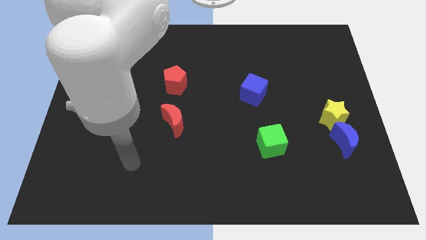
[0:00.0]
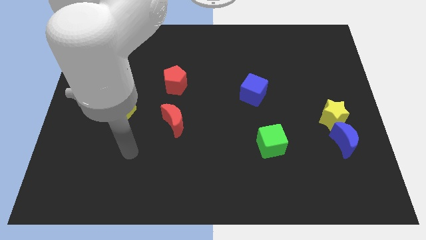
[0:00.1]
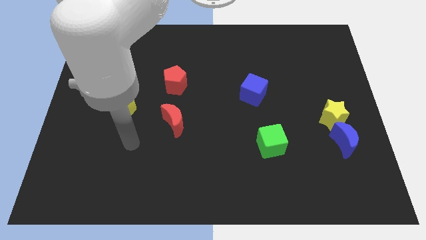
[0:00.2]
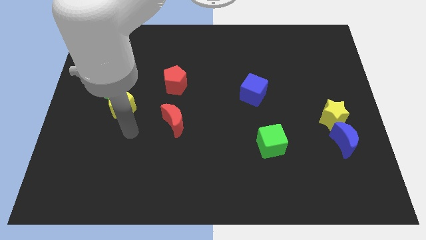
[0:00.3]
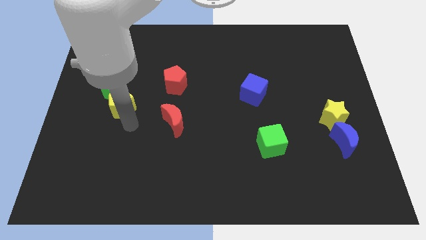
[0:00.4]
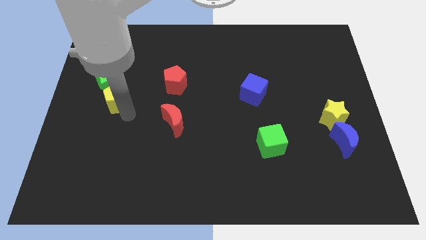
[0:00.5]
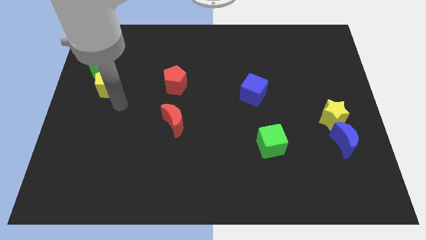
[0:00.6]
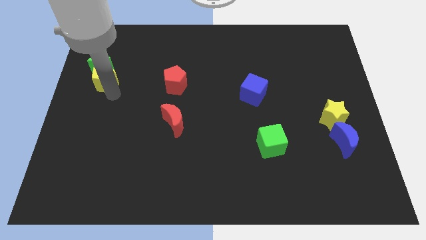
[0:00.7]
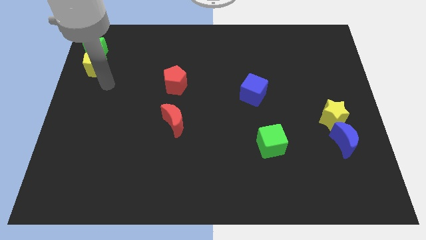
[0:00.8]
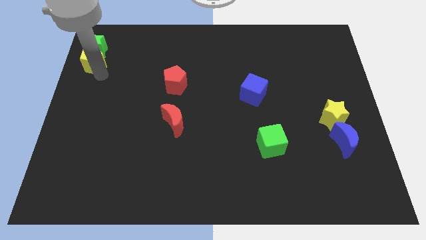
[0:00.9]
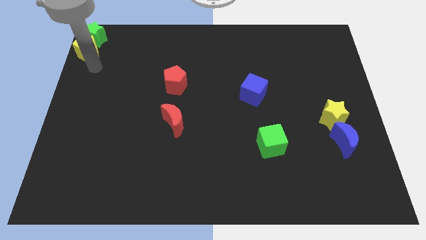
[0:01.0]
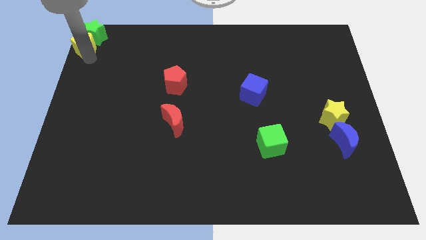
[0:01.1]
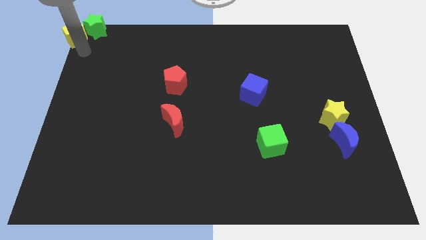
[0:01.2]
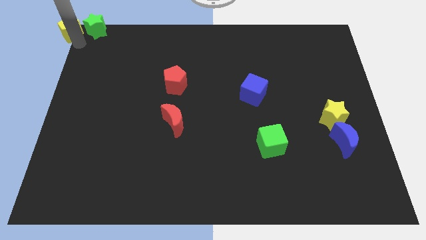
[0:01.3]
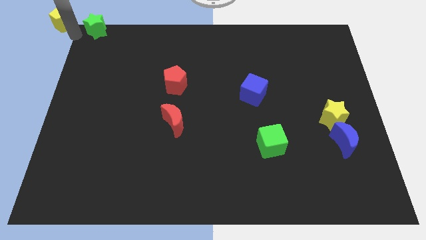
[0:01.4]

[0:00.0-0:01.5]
move the green star away from the yellow pentagon

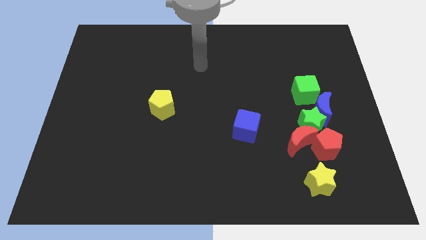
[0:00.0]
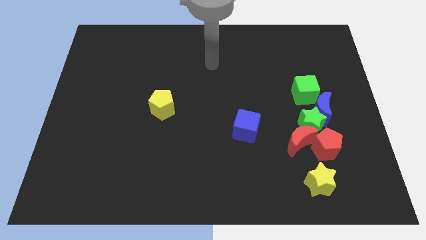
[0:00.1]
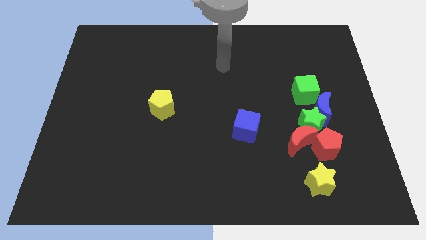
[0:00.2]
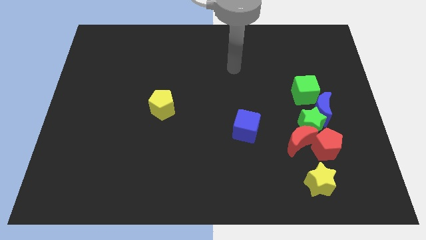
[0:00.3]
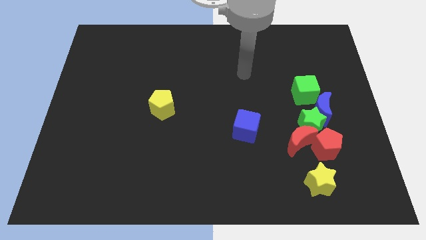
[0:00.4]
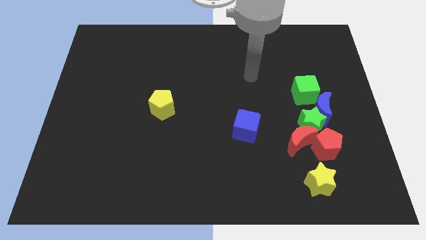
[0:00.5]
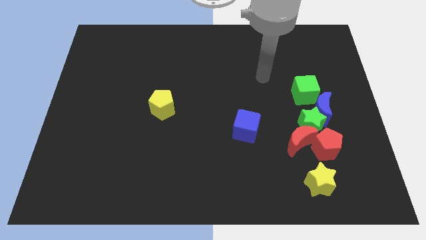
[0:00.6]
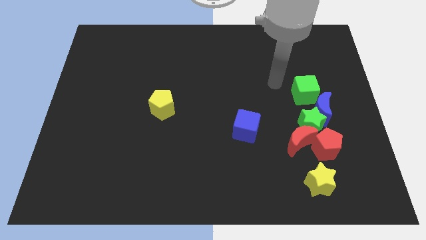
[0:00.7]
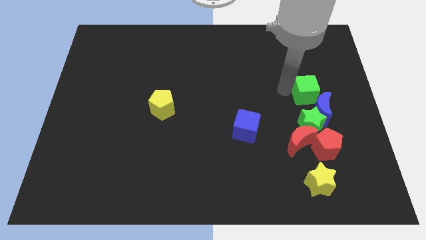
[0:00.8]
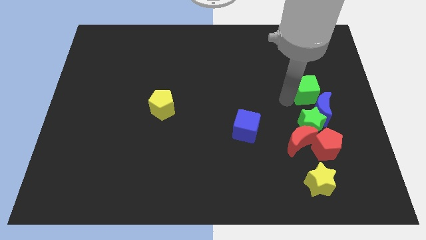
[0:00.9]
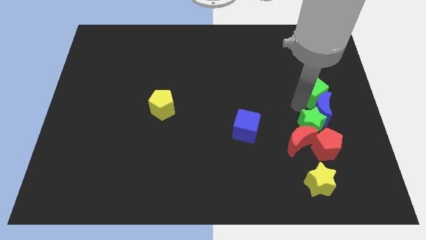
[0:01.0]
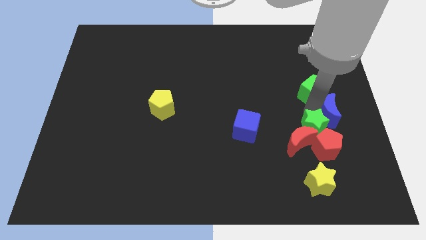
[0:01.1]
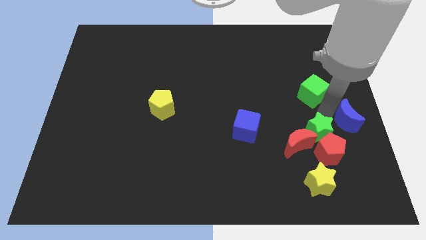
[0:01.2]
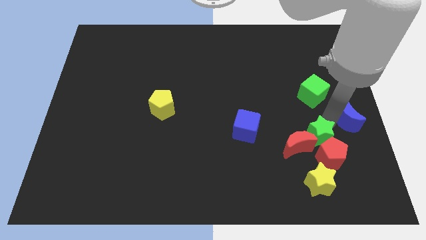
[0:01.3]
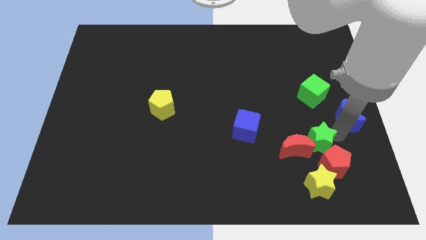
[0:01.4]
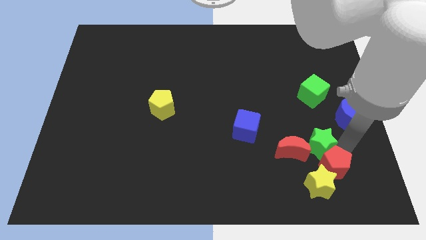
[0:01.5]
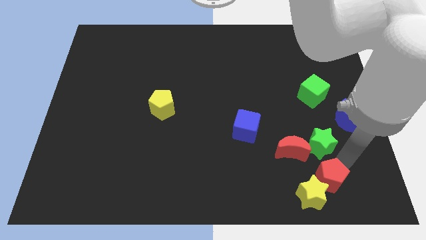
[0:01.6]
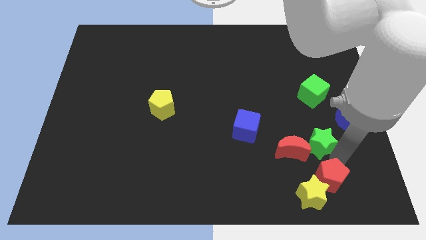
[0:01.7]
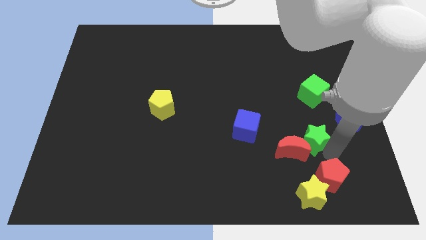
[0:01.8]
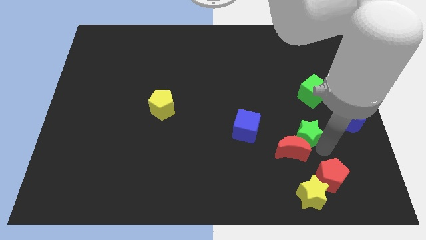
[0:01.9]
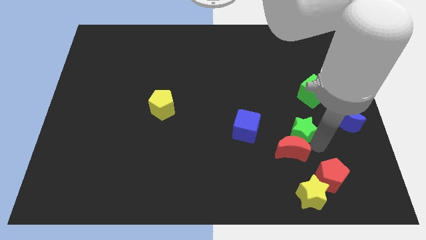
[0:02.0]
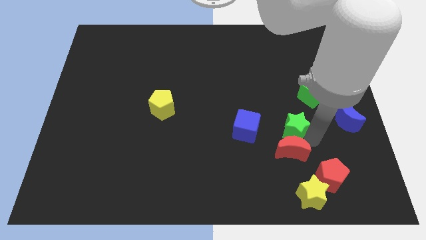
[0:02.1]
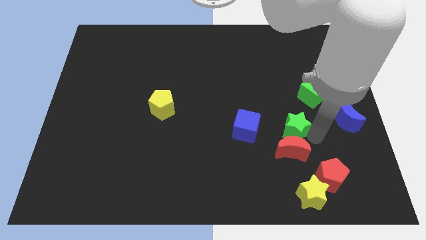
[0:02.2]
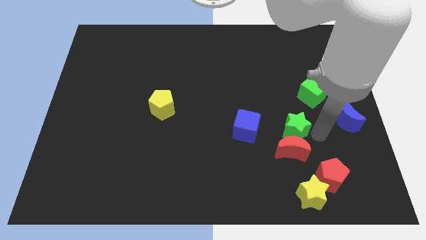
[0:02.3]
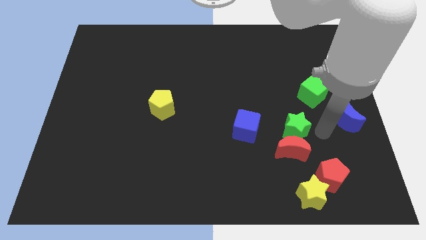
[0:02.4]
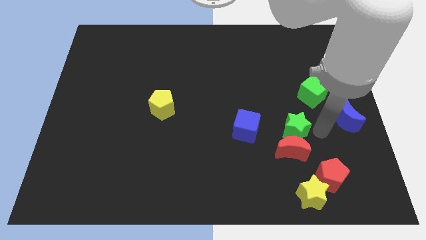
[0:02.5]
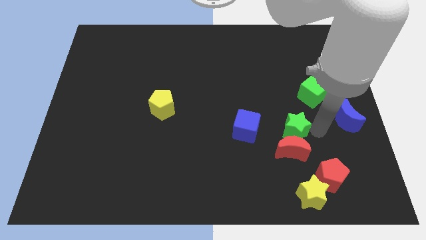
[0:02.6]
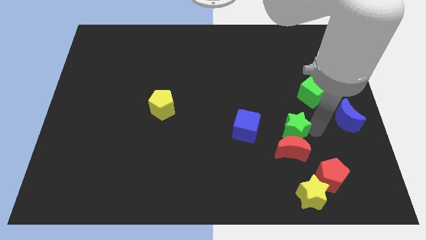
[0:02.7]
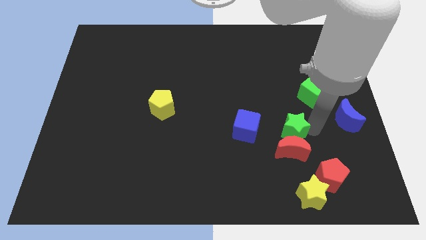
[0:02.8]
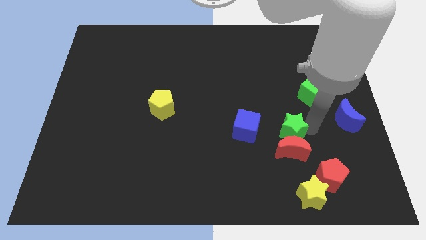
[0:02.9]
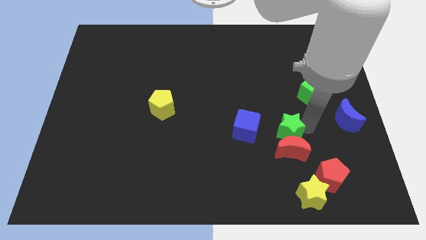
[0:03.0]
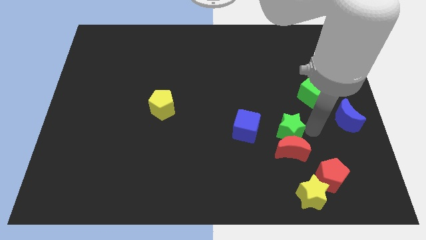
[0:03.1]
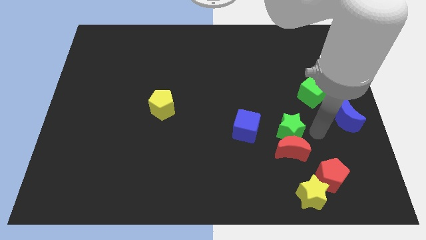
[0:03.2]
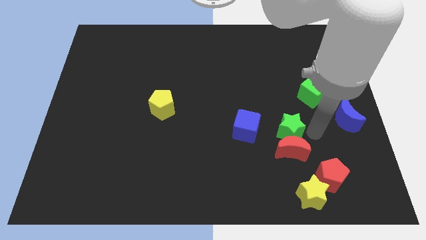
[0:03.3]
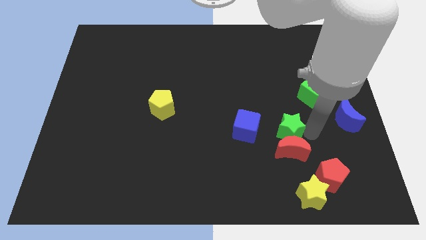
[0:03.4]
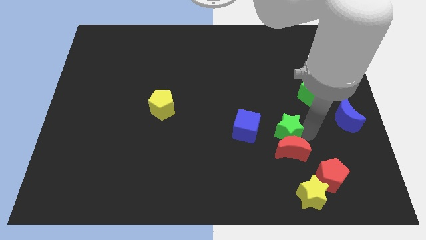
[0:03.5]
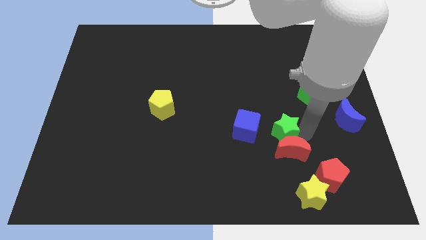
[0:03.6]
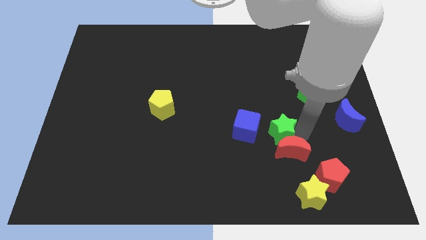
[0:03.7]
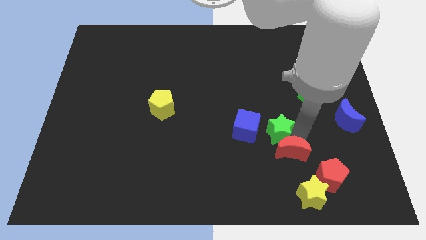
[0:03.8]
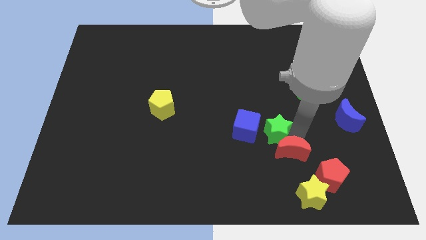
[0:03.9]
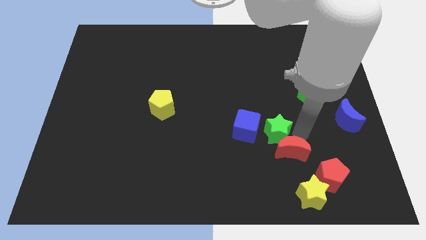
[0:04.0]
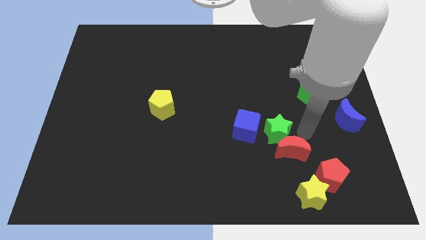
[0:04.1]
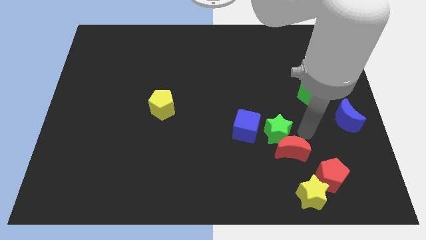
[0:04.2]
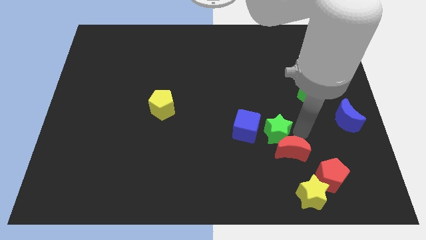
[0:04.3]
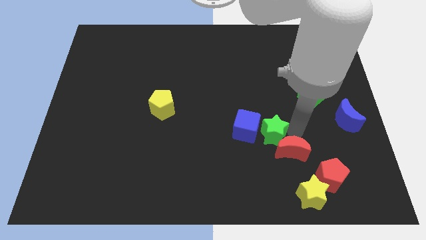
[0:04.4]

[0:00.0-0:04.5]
pull the green star apart from the group of blocks

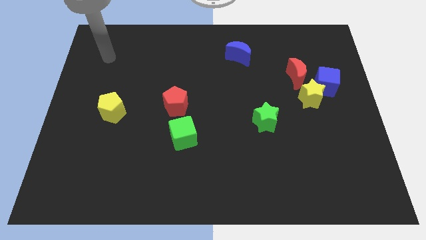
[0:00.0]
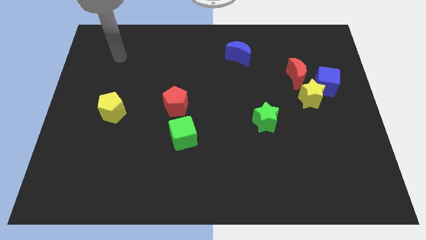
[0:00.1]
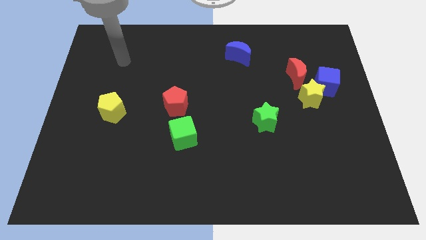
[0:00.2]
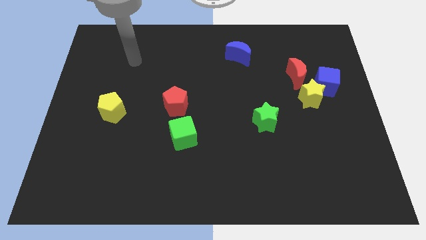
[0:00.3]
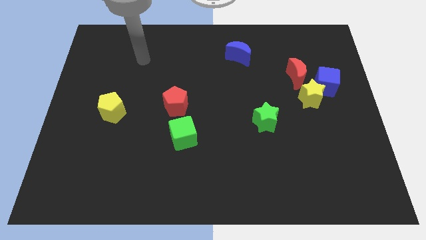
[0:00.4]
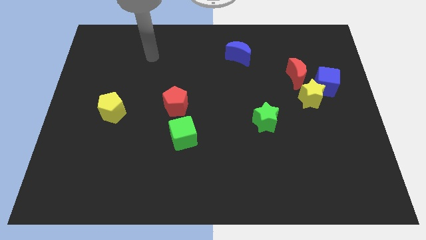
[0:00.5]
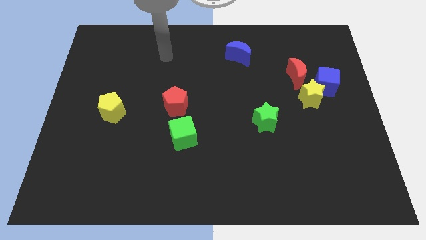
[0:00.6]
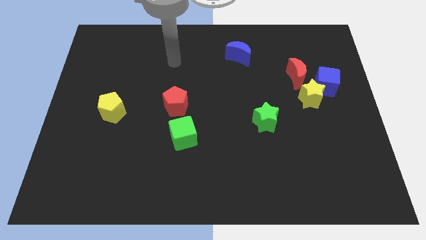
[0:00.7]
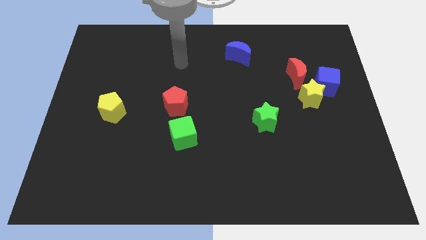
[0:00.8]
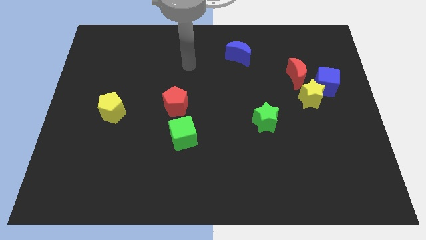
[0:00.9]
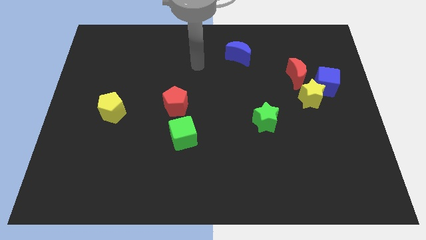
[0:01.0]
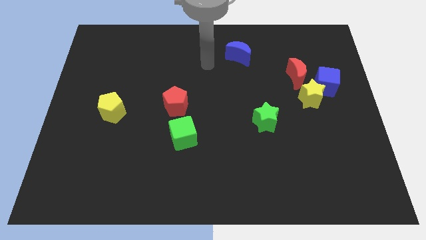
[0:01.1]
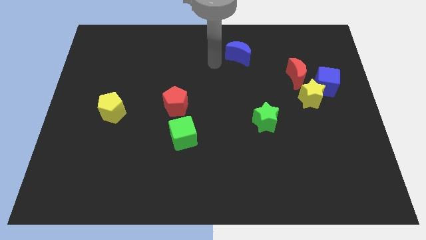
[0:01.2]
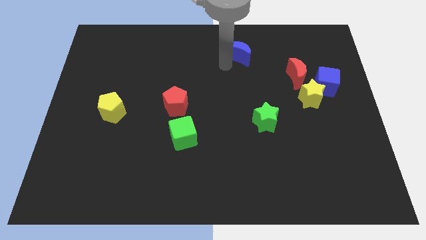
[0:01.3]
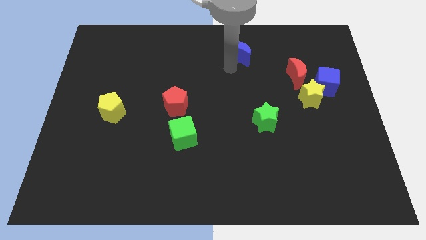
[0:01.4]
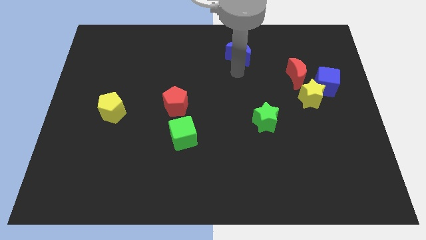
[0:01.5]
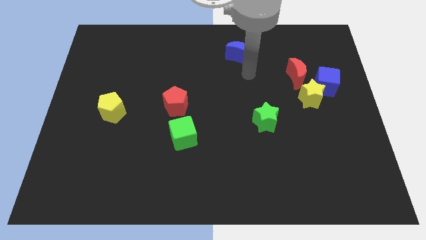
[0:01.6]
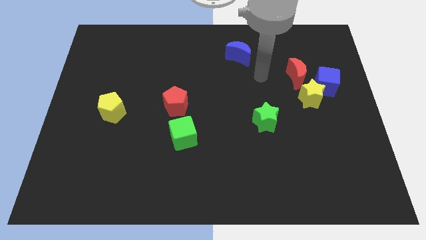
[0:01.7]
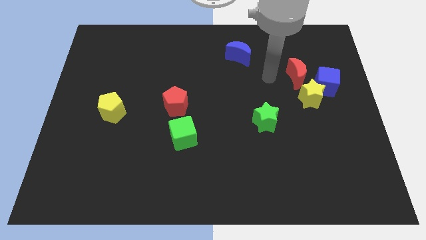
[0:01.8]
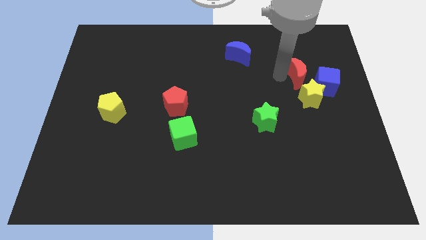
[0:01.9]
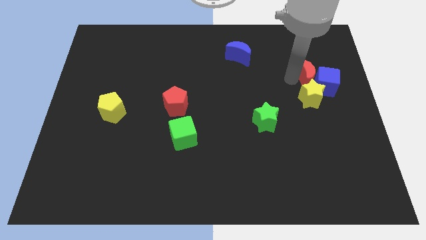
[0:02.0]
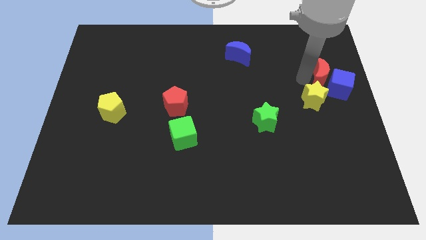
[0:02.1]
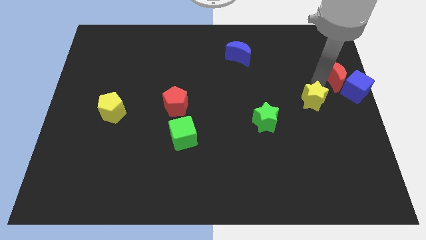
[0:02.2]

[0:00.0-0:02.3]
move the yellow star away from the blue cube and red moon

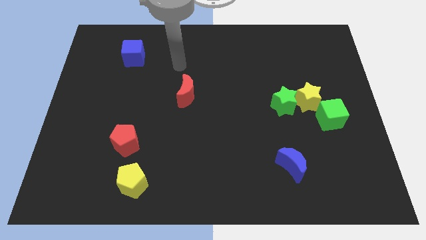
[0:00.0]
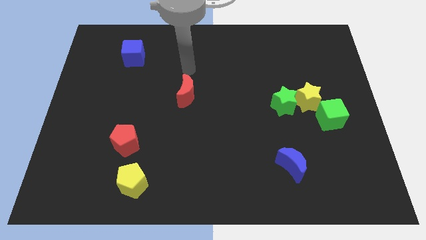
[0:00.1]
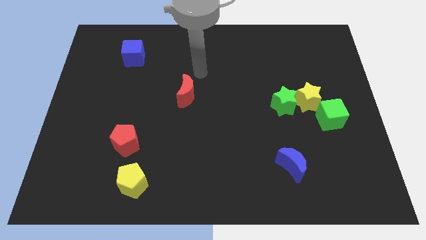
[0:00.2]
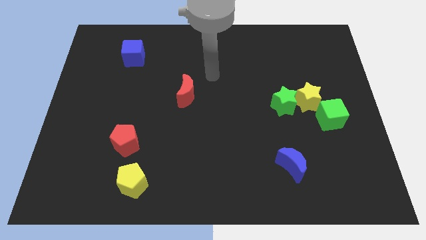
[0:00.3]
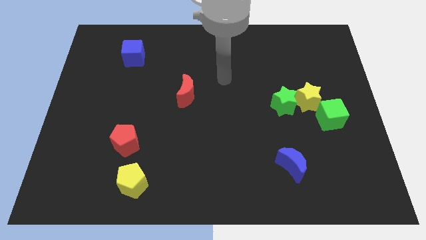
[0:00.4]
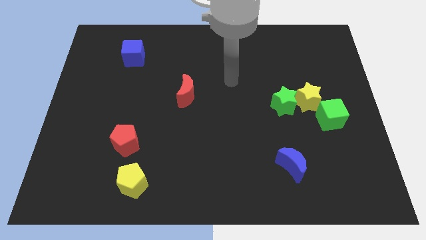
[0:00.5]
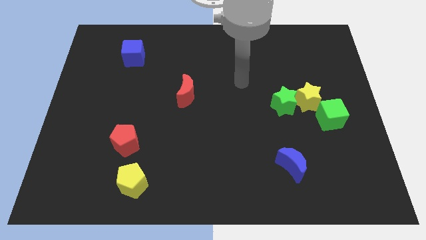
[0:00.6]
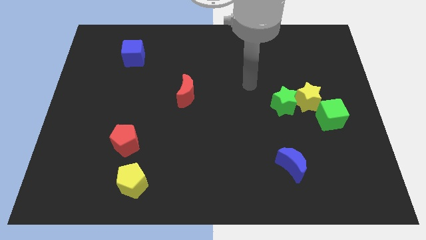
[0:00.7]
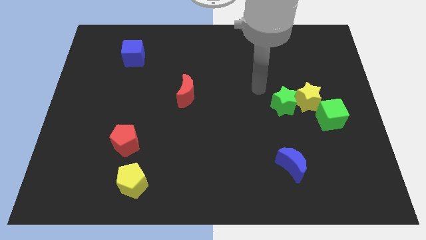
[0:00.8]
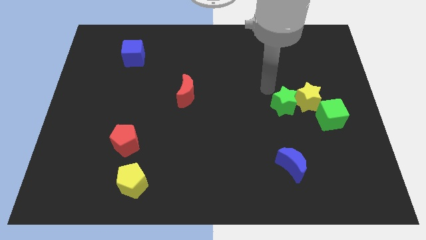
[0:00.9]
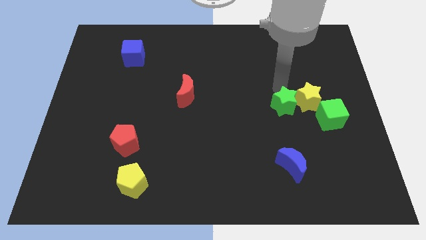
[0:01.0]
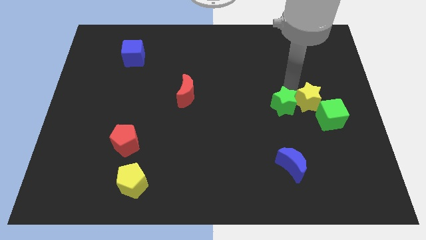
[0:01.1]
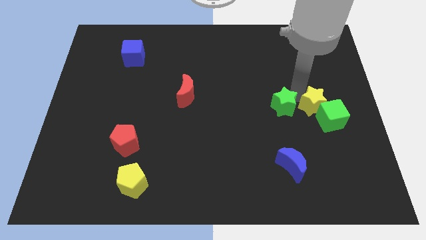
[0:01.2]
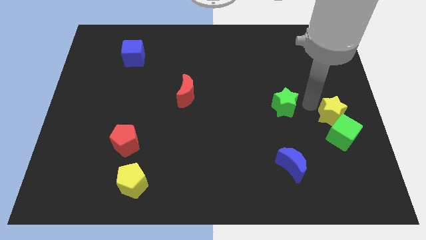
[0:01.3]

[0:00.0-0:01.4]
move the green star away from the yellow star
